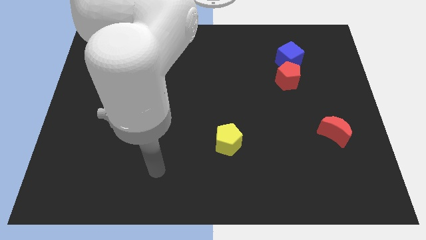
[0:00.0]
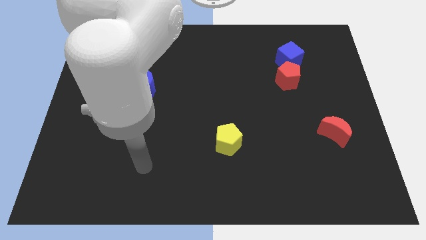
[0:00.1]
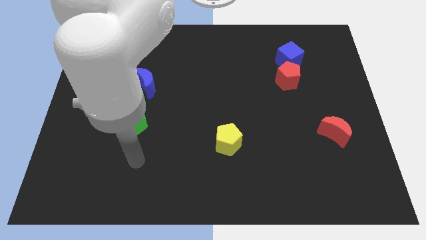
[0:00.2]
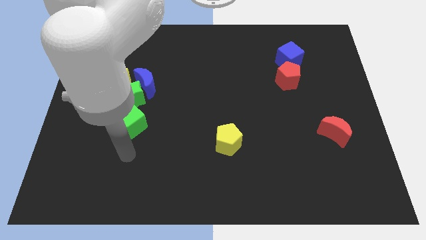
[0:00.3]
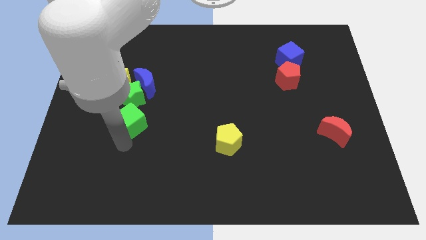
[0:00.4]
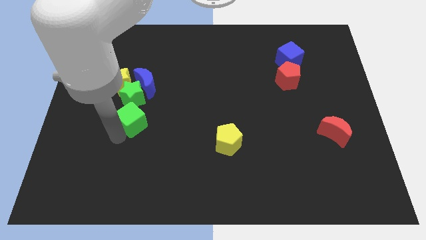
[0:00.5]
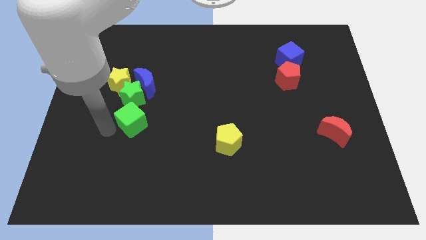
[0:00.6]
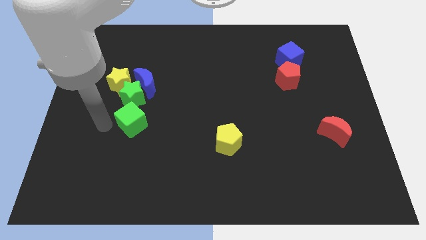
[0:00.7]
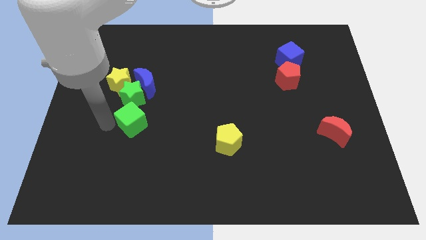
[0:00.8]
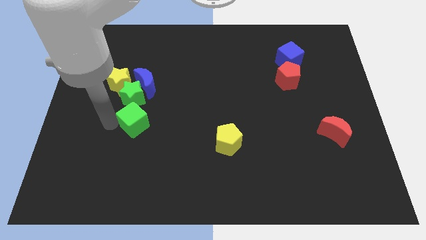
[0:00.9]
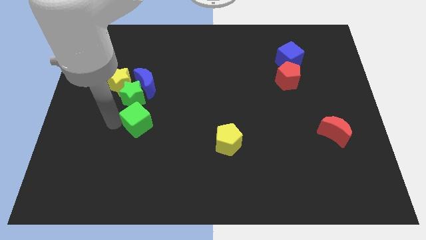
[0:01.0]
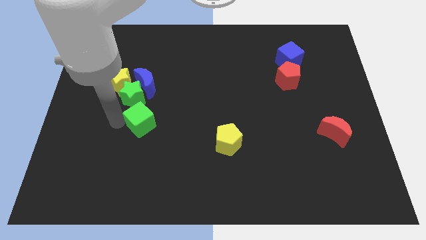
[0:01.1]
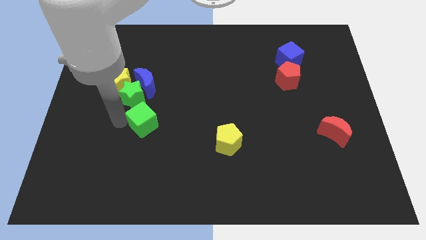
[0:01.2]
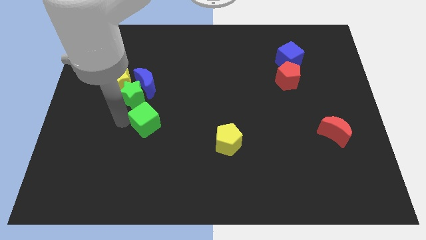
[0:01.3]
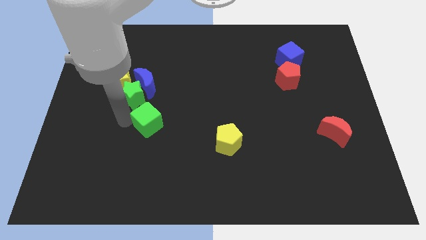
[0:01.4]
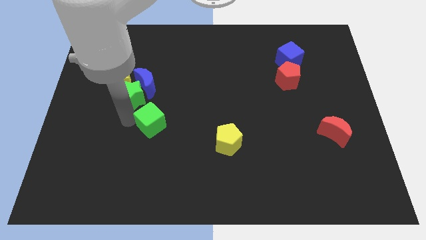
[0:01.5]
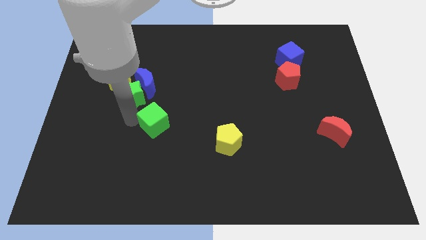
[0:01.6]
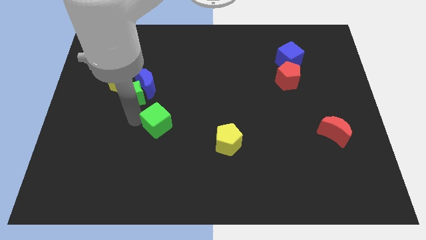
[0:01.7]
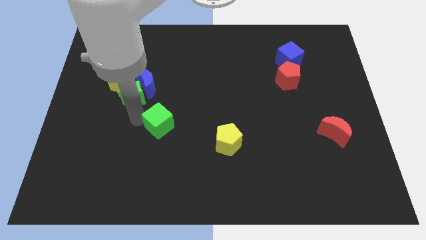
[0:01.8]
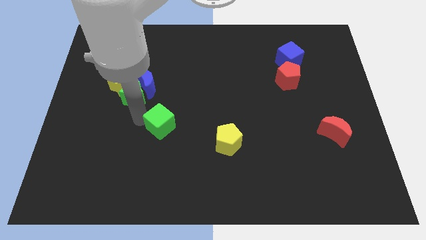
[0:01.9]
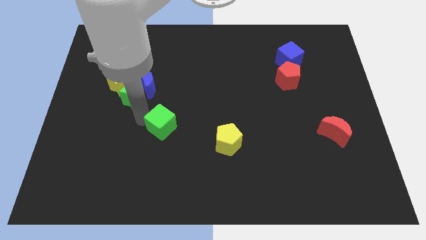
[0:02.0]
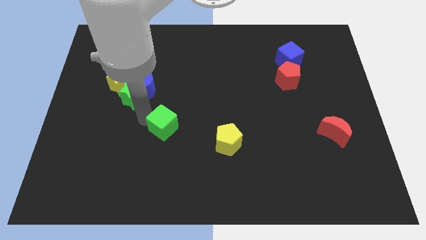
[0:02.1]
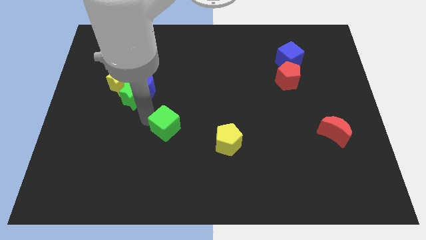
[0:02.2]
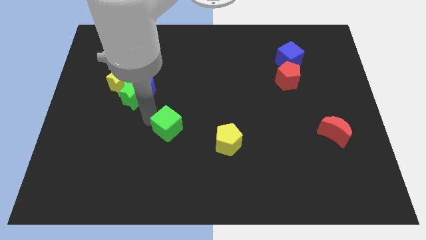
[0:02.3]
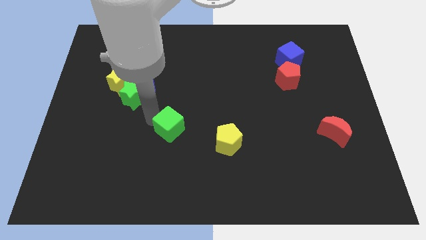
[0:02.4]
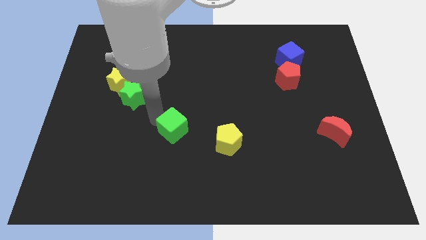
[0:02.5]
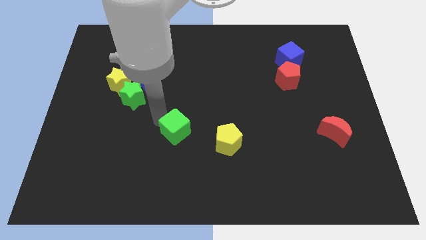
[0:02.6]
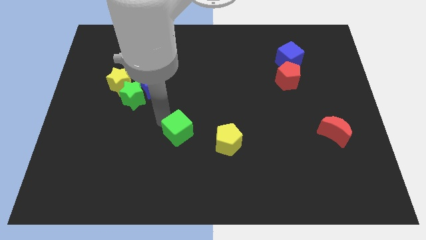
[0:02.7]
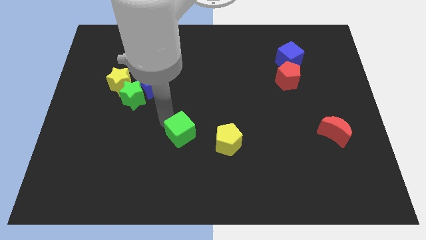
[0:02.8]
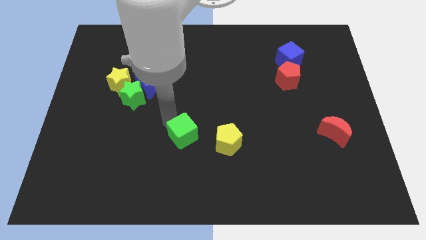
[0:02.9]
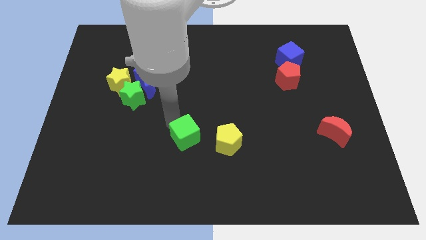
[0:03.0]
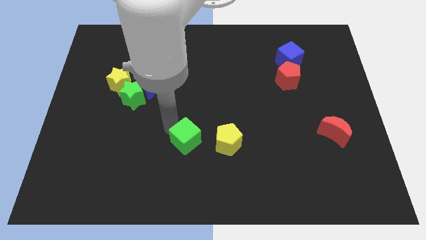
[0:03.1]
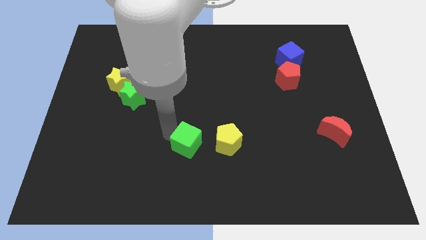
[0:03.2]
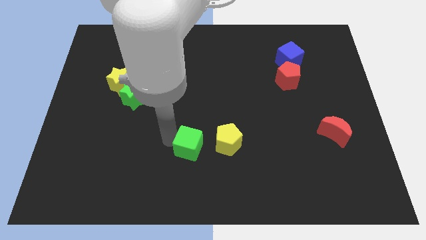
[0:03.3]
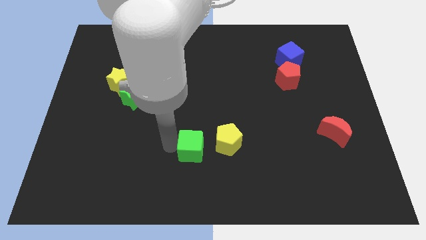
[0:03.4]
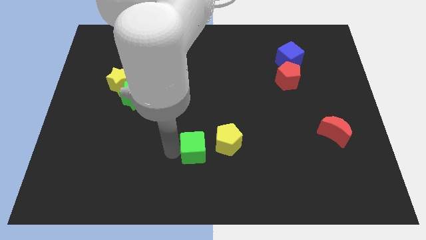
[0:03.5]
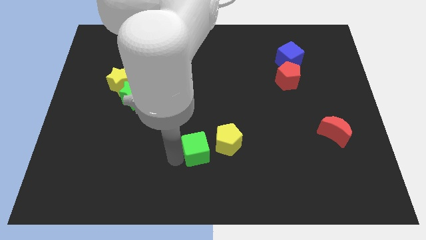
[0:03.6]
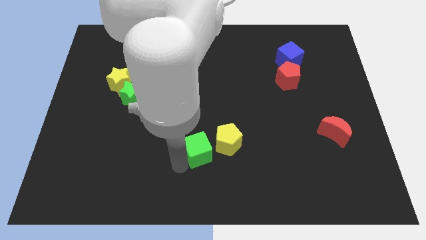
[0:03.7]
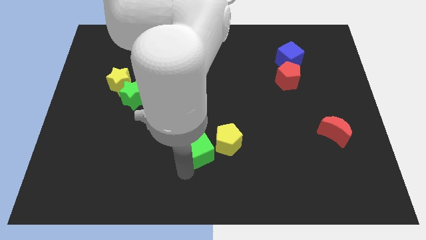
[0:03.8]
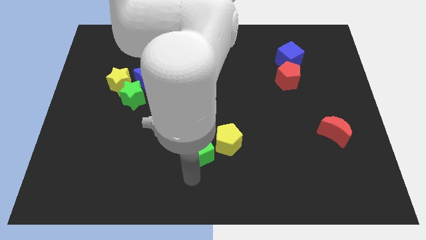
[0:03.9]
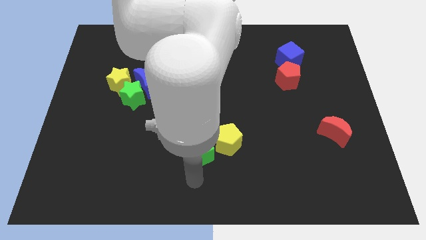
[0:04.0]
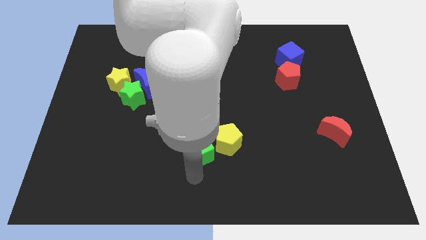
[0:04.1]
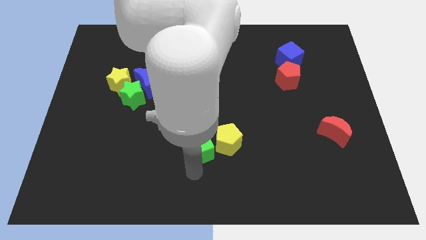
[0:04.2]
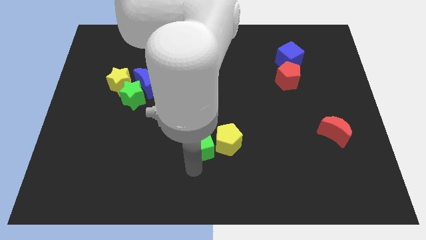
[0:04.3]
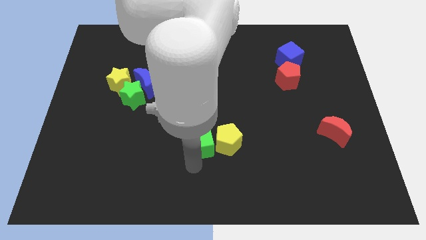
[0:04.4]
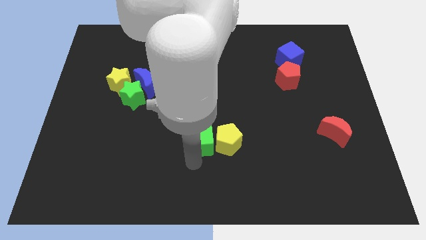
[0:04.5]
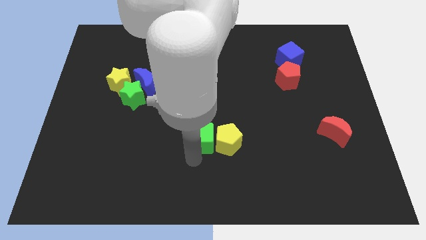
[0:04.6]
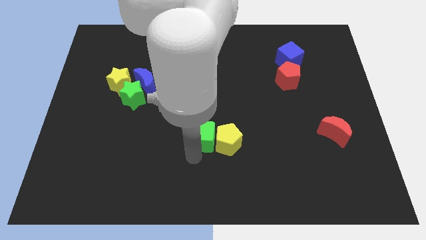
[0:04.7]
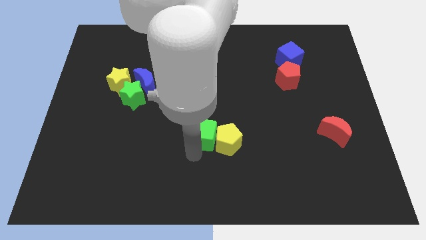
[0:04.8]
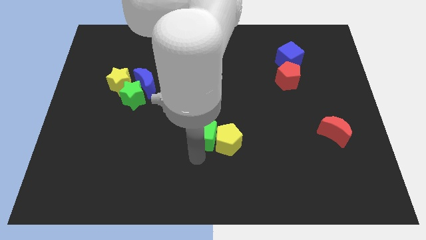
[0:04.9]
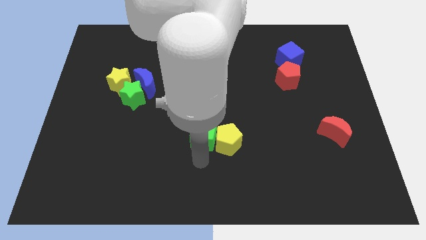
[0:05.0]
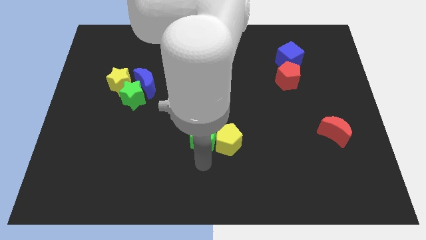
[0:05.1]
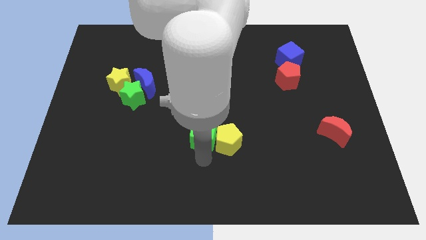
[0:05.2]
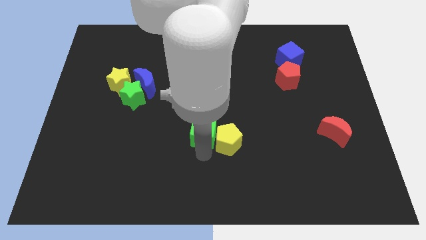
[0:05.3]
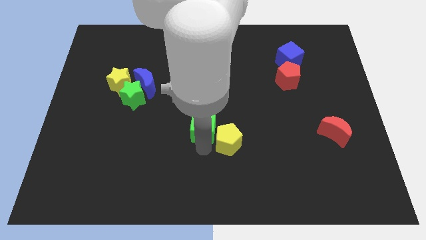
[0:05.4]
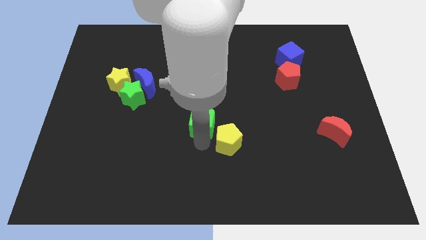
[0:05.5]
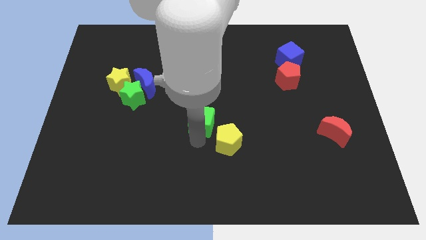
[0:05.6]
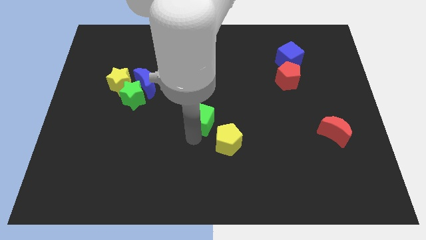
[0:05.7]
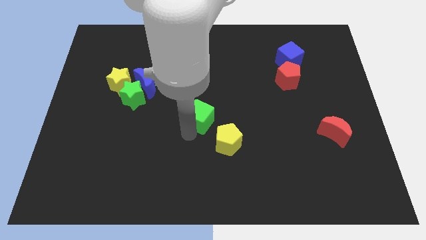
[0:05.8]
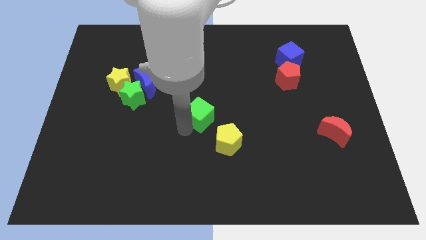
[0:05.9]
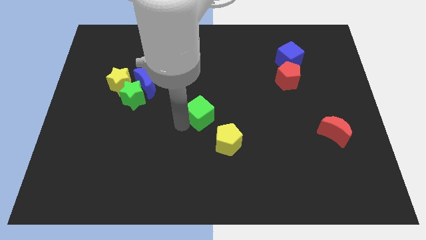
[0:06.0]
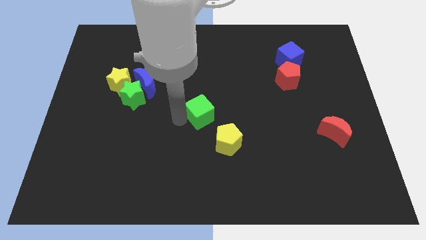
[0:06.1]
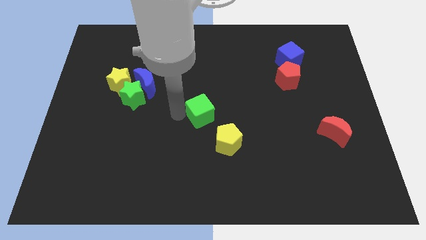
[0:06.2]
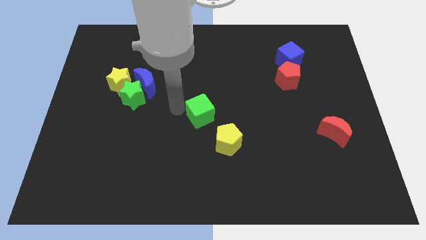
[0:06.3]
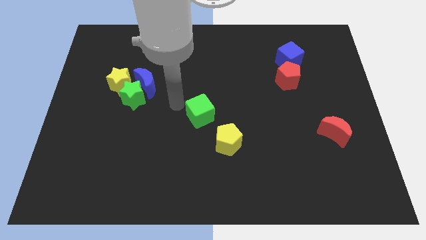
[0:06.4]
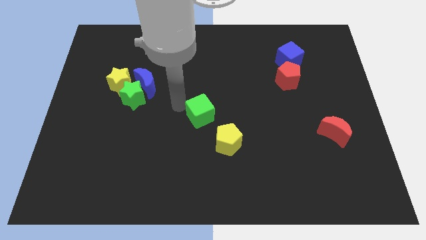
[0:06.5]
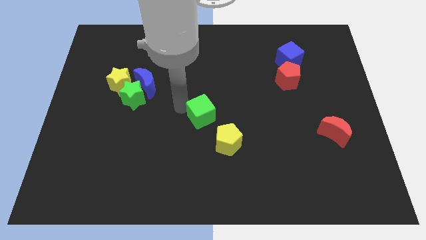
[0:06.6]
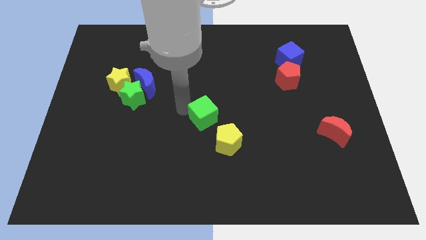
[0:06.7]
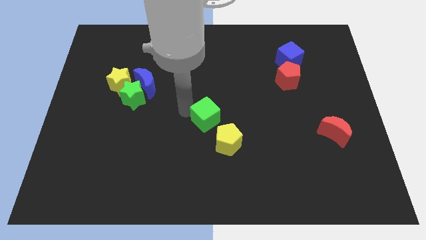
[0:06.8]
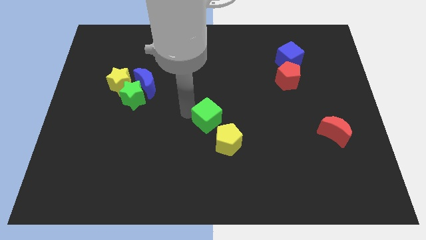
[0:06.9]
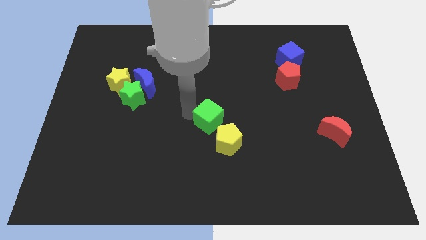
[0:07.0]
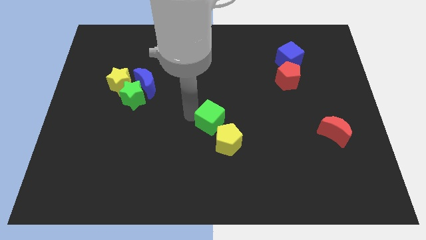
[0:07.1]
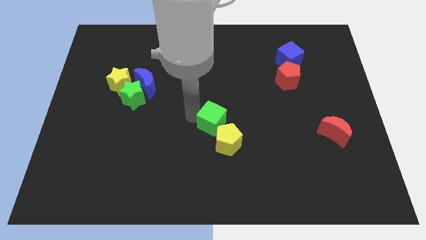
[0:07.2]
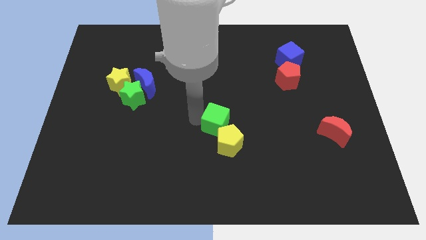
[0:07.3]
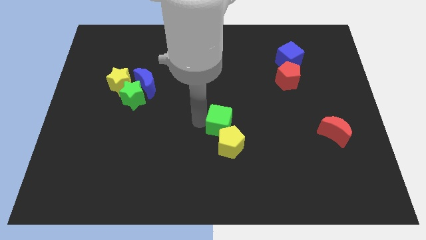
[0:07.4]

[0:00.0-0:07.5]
move the green cube to the right

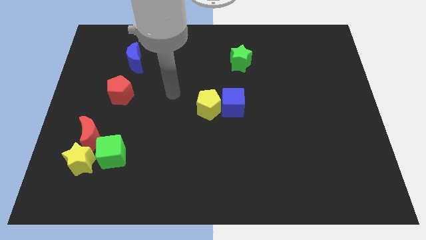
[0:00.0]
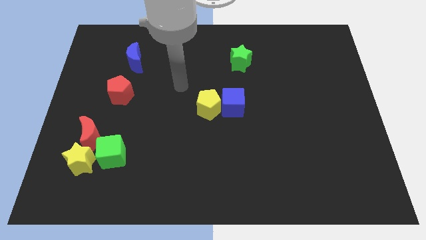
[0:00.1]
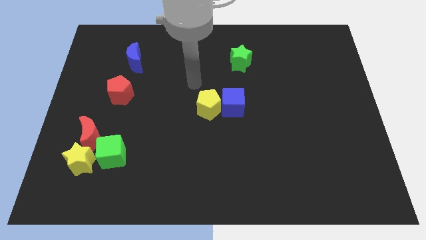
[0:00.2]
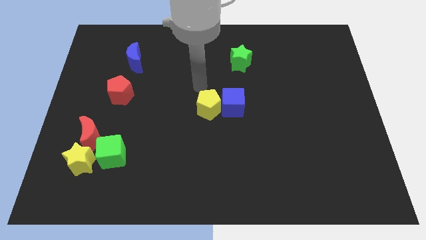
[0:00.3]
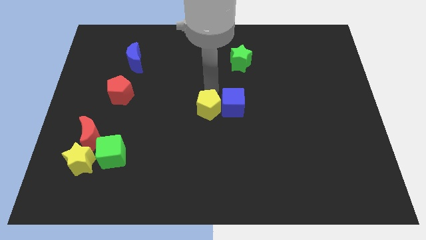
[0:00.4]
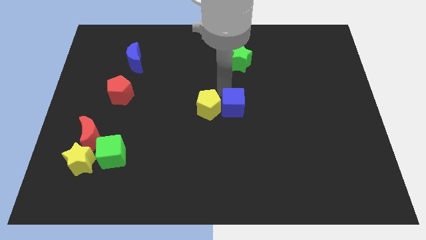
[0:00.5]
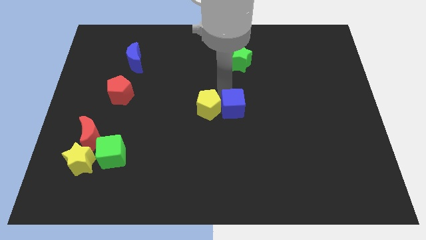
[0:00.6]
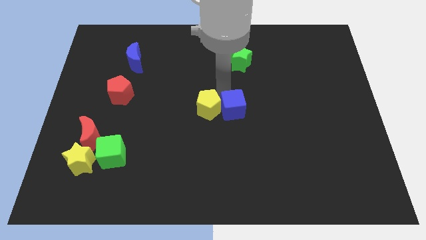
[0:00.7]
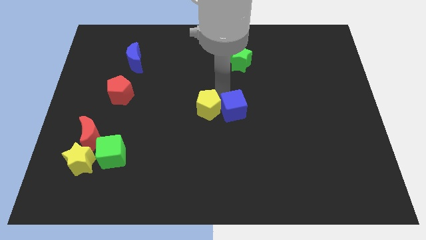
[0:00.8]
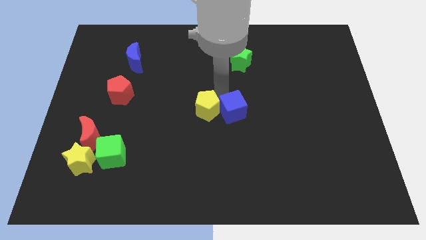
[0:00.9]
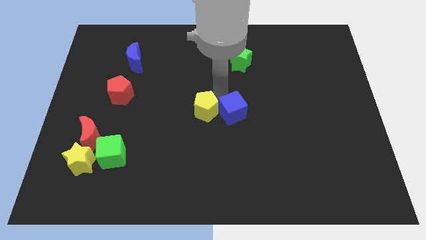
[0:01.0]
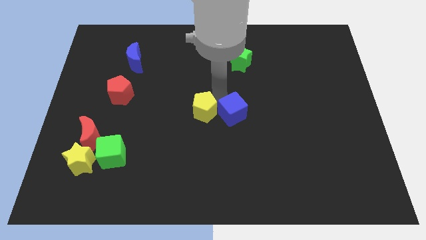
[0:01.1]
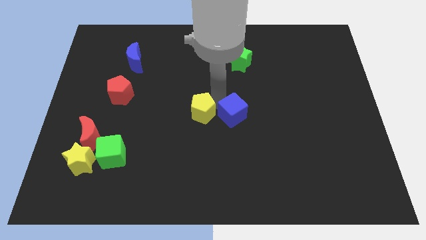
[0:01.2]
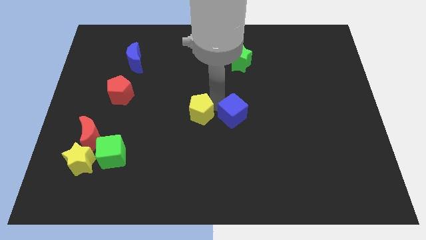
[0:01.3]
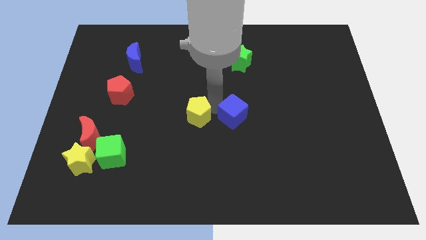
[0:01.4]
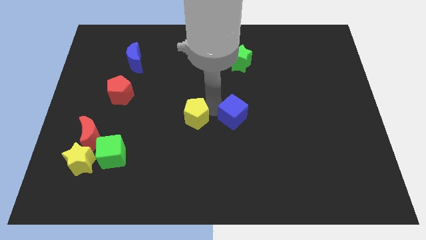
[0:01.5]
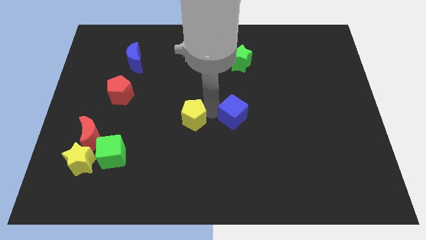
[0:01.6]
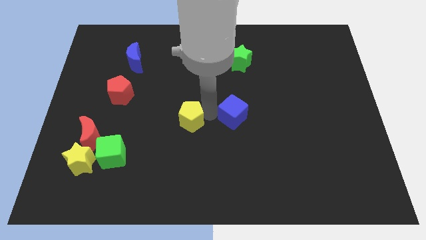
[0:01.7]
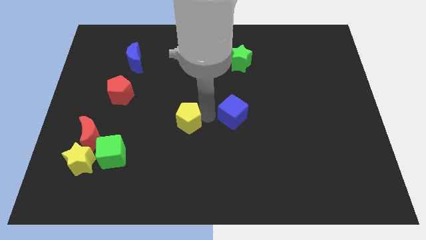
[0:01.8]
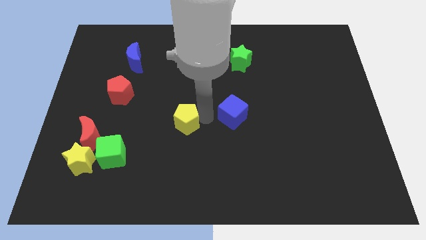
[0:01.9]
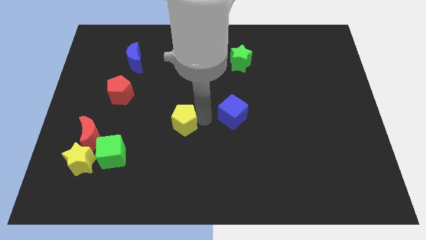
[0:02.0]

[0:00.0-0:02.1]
slide the yellow pentagon down and to the left somewhat
